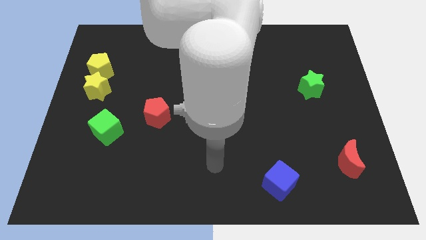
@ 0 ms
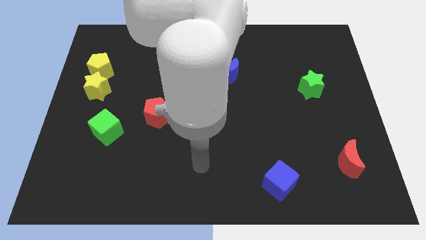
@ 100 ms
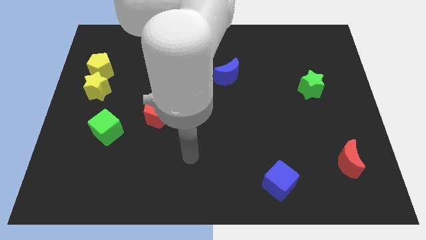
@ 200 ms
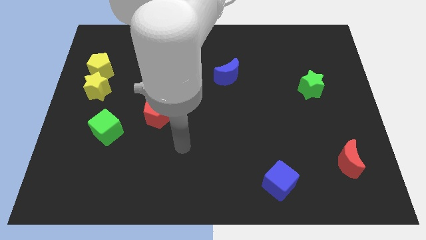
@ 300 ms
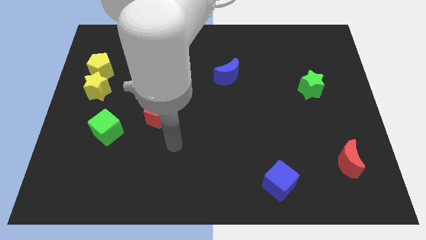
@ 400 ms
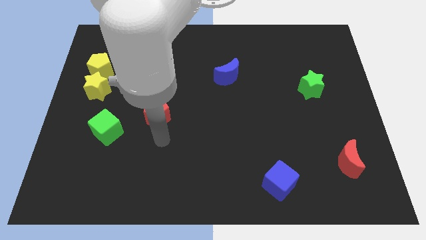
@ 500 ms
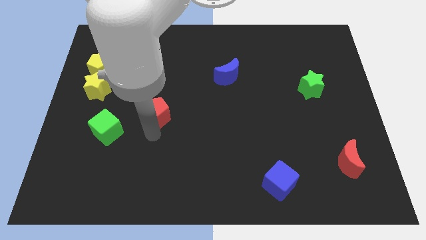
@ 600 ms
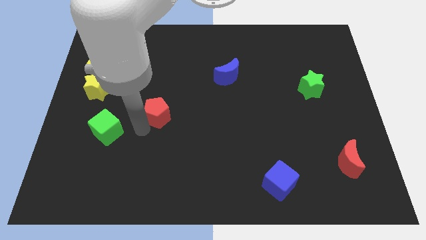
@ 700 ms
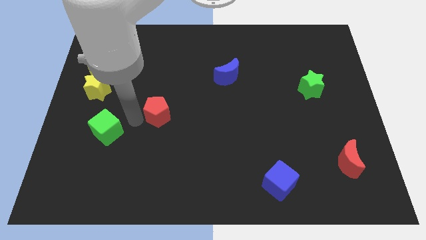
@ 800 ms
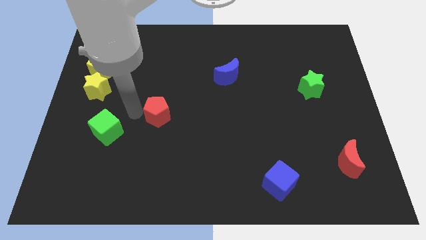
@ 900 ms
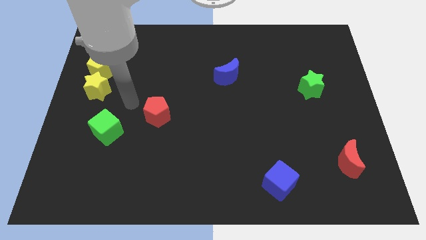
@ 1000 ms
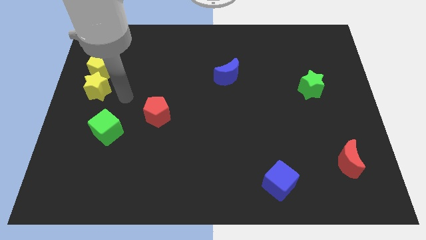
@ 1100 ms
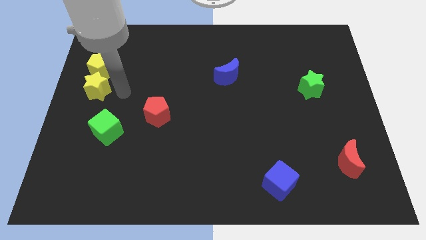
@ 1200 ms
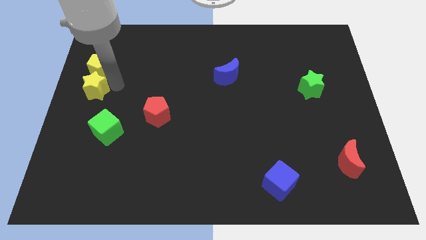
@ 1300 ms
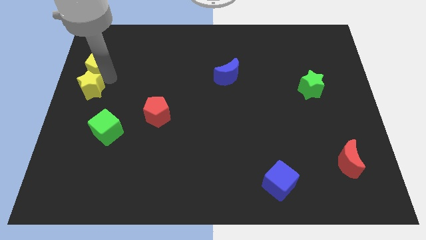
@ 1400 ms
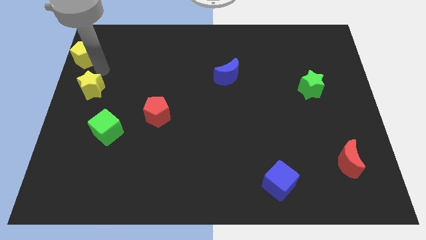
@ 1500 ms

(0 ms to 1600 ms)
separate the yellow star from the yellow pentagon

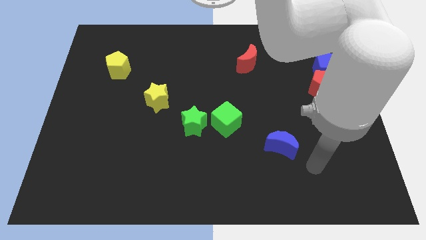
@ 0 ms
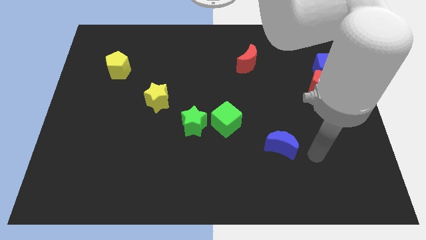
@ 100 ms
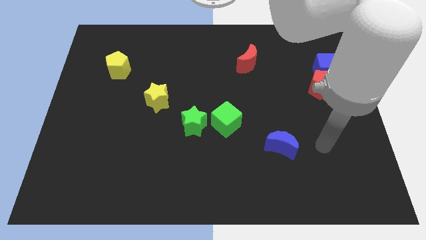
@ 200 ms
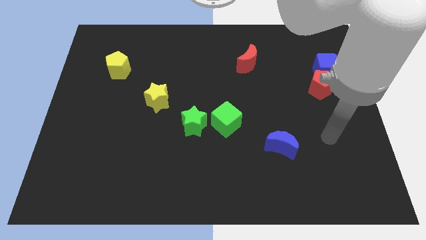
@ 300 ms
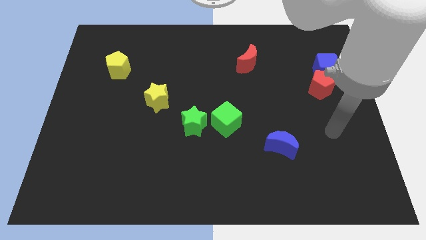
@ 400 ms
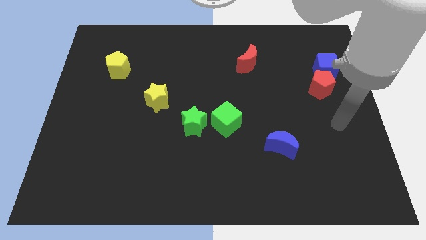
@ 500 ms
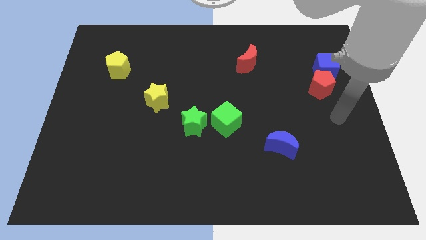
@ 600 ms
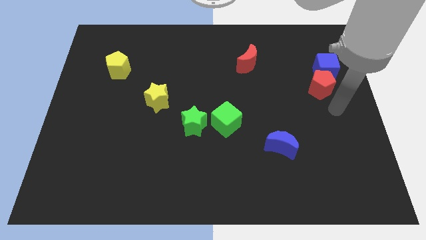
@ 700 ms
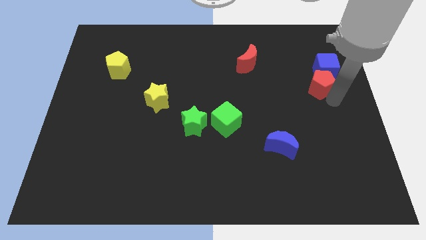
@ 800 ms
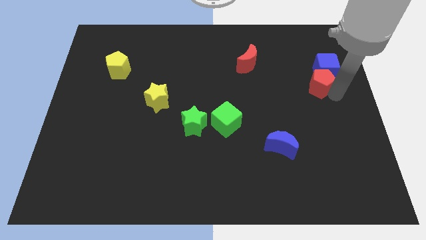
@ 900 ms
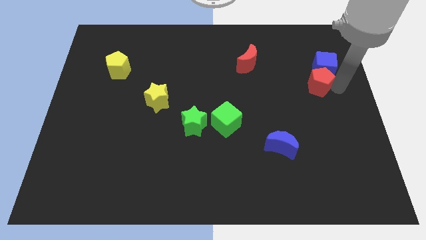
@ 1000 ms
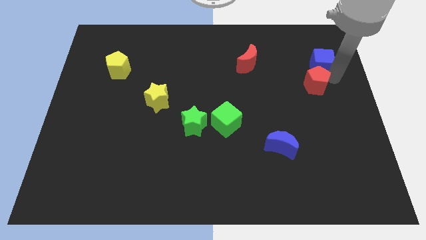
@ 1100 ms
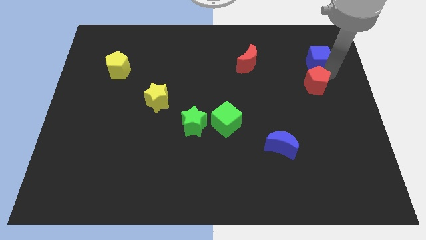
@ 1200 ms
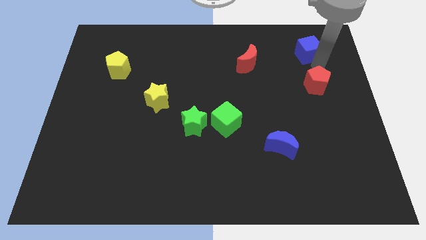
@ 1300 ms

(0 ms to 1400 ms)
move the red pentagon away from the blue cube

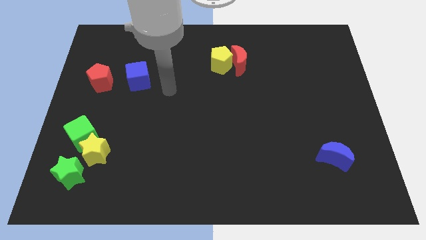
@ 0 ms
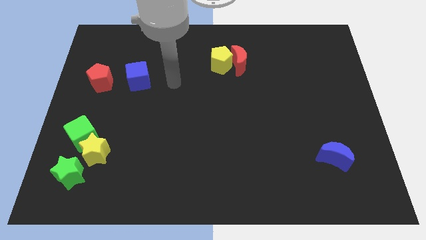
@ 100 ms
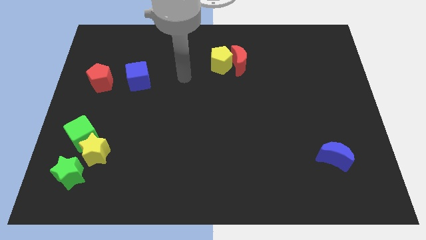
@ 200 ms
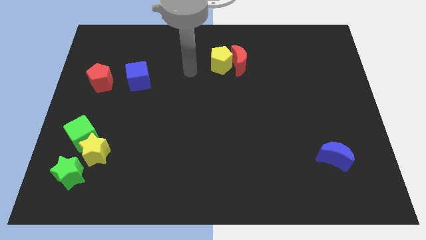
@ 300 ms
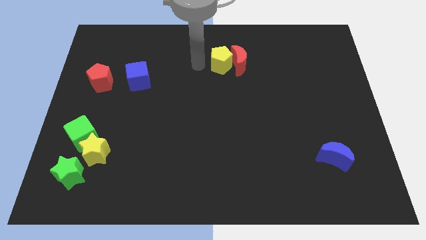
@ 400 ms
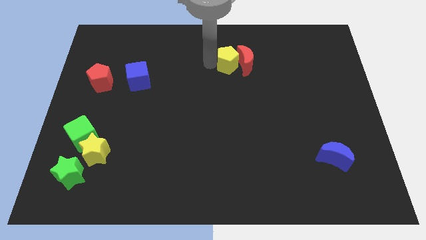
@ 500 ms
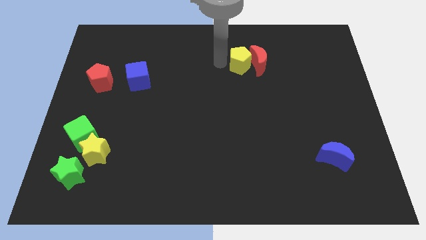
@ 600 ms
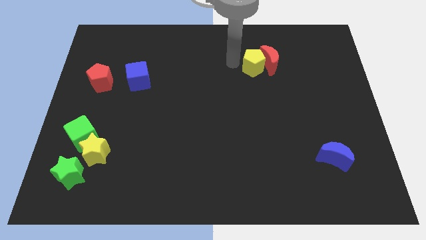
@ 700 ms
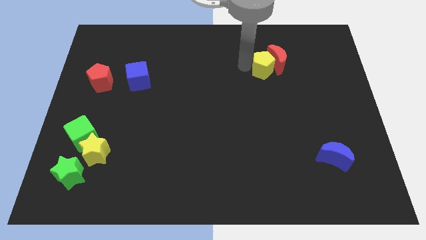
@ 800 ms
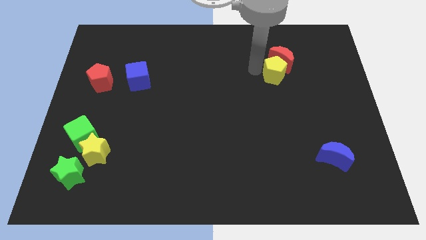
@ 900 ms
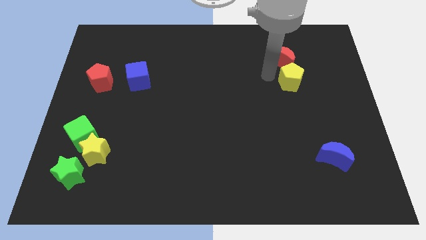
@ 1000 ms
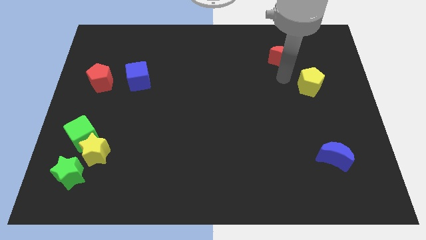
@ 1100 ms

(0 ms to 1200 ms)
move the red moon away from the yellow pentagon

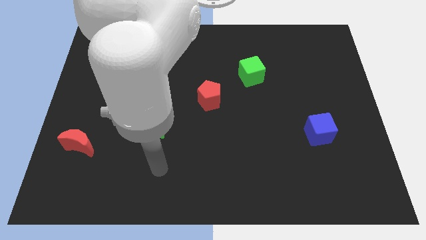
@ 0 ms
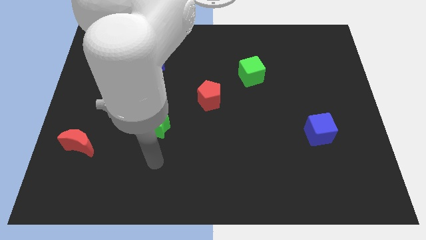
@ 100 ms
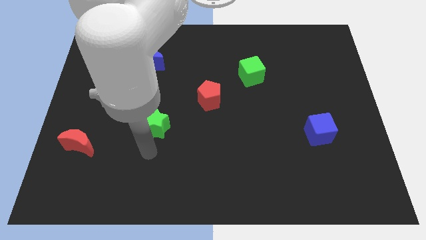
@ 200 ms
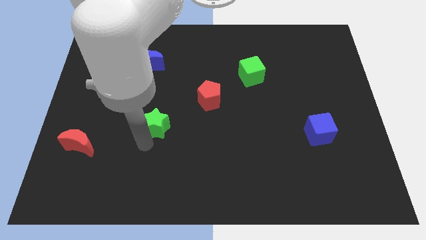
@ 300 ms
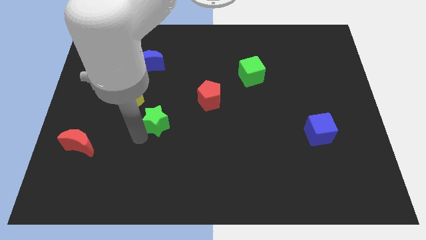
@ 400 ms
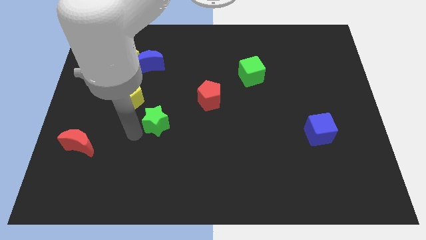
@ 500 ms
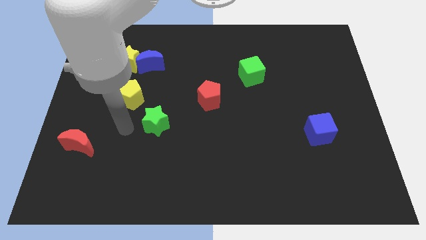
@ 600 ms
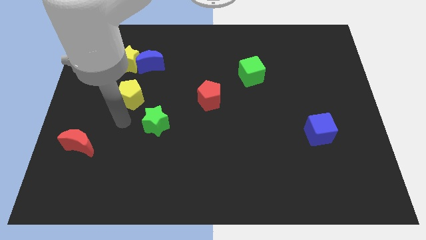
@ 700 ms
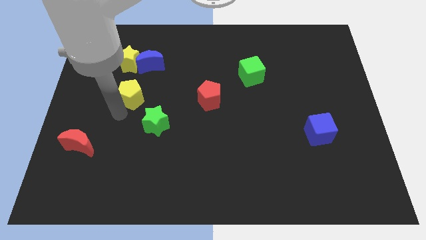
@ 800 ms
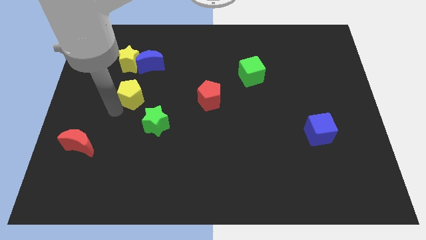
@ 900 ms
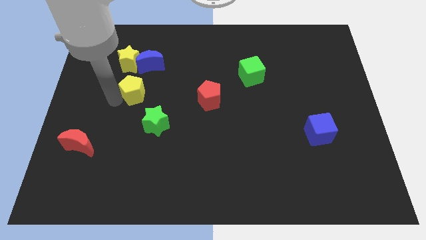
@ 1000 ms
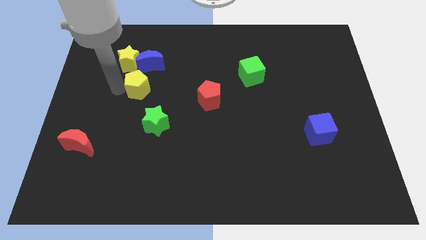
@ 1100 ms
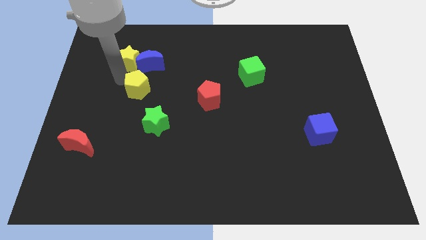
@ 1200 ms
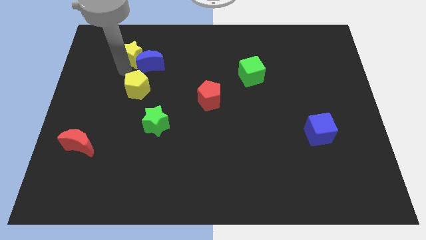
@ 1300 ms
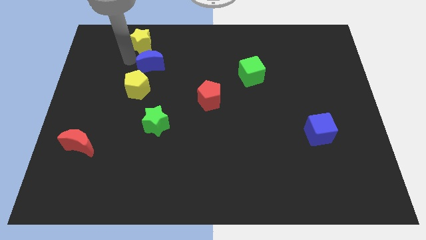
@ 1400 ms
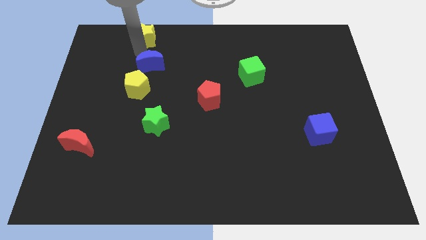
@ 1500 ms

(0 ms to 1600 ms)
pull the blue moon apart from the yellow star

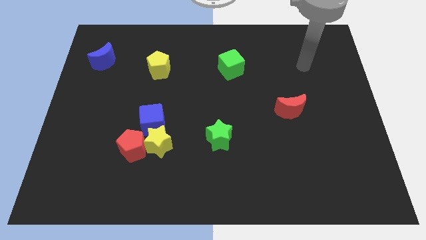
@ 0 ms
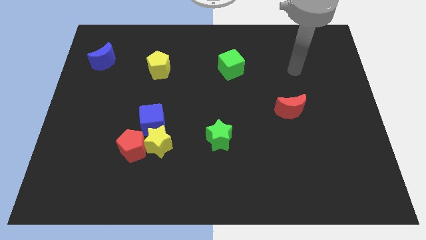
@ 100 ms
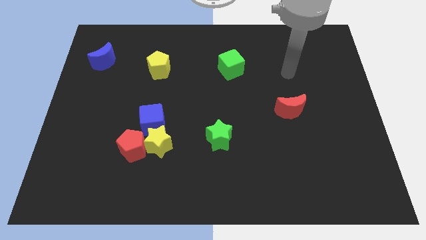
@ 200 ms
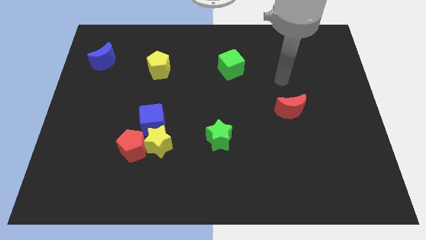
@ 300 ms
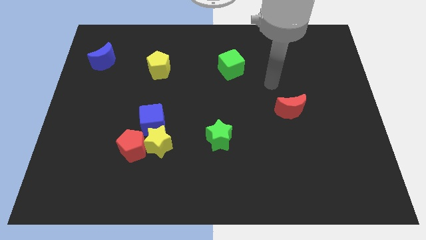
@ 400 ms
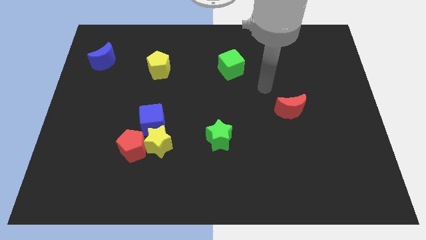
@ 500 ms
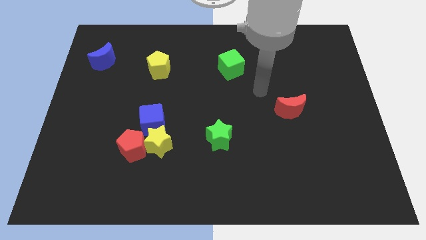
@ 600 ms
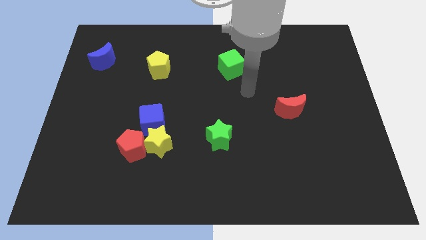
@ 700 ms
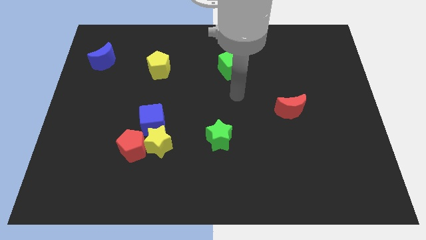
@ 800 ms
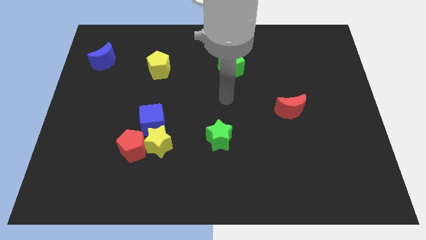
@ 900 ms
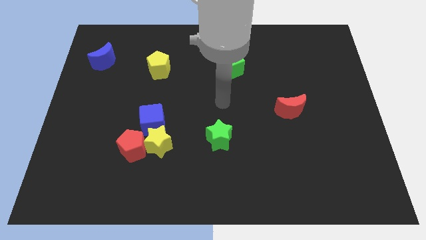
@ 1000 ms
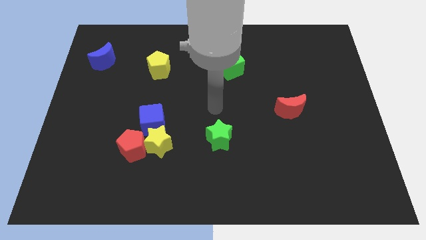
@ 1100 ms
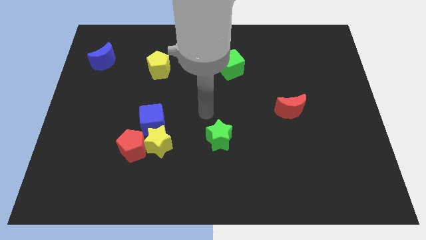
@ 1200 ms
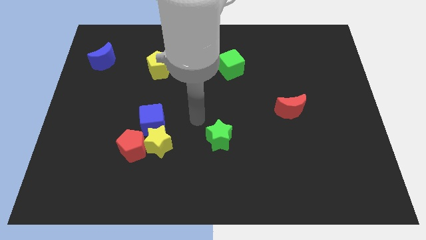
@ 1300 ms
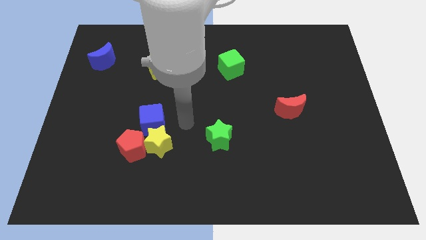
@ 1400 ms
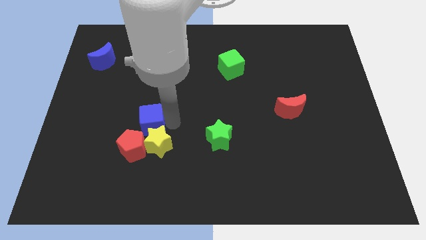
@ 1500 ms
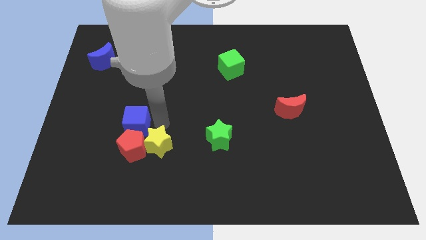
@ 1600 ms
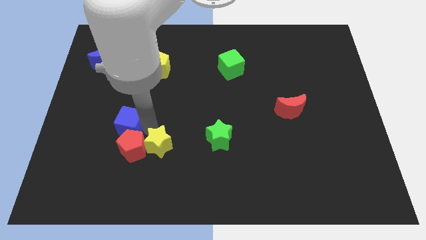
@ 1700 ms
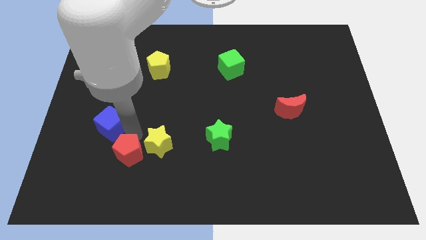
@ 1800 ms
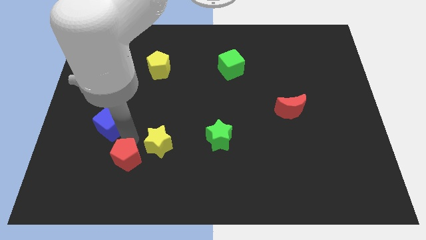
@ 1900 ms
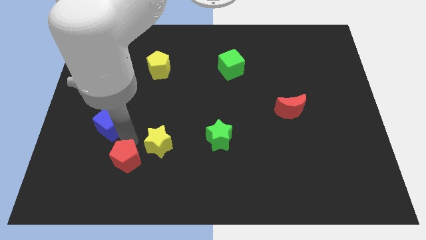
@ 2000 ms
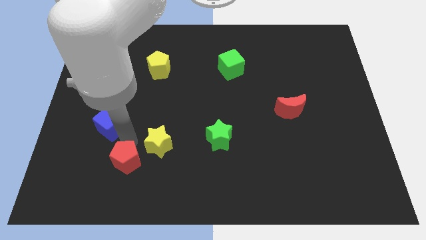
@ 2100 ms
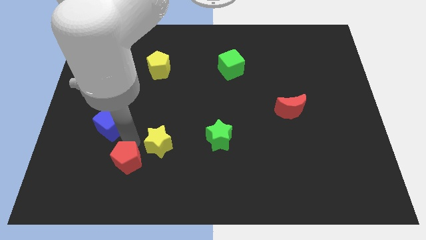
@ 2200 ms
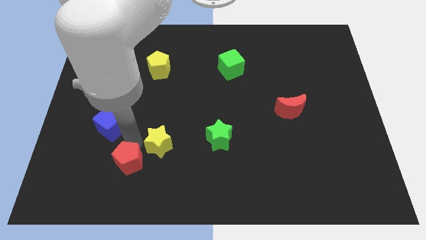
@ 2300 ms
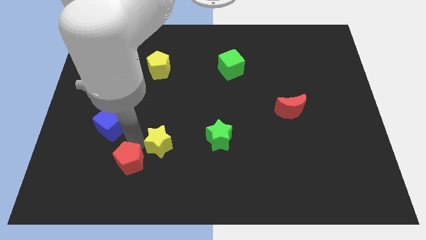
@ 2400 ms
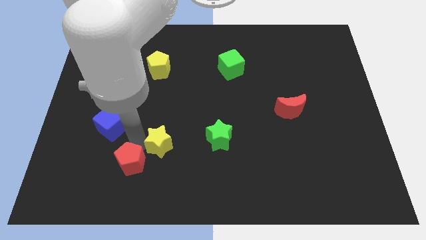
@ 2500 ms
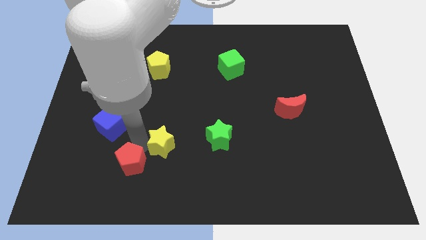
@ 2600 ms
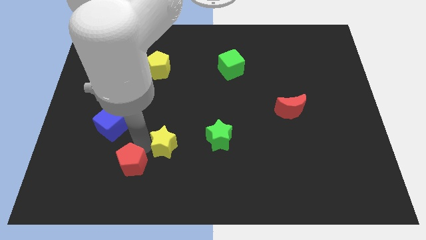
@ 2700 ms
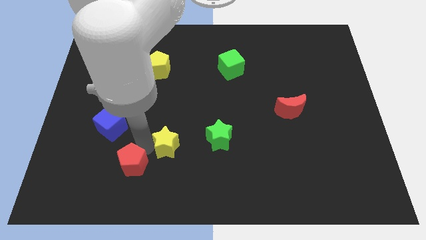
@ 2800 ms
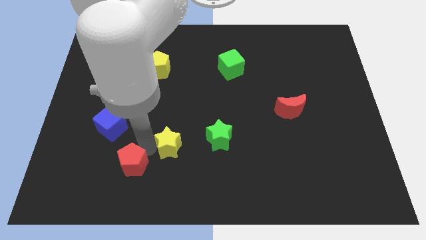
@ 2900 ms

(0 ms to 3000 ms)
move the yellow star away from the red pentagon and blue cube

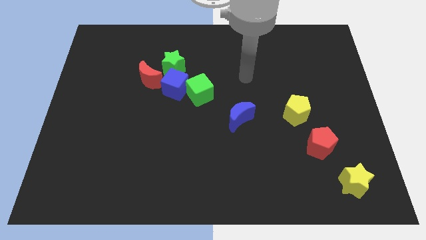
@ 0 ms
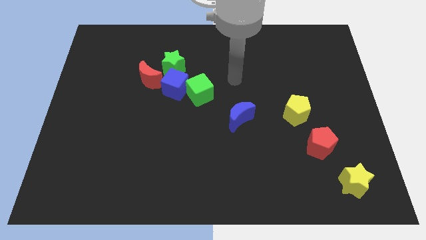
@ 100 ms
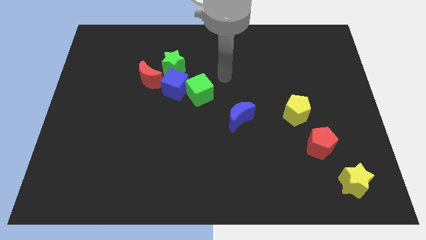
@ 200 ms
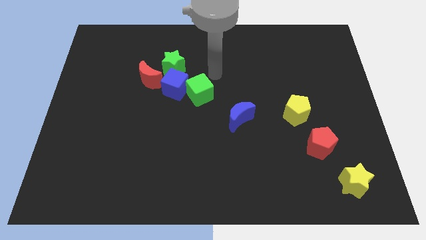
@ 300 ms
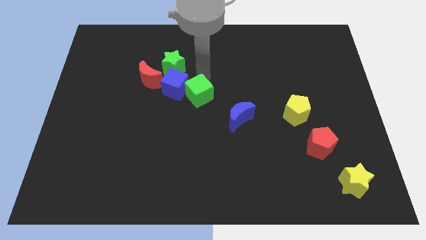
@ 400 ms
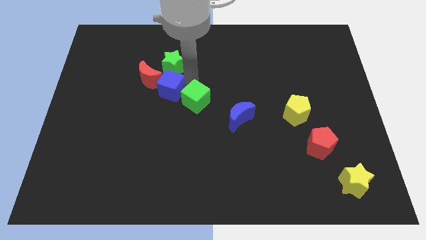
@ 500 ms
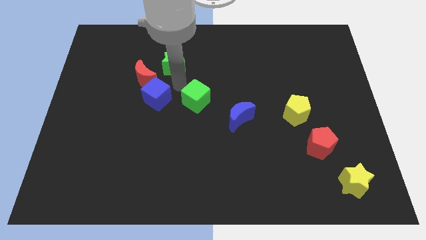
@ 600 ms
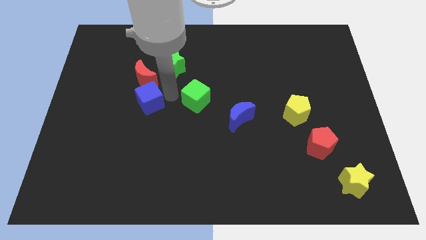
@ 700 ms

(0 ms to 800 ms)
separate the green cube from the blue cube
